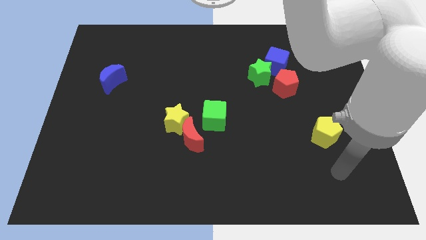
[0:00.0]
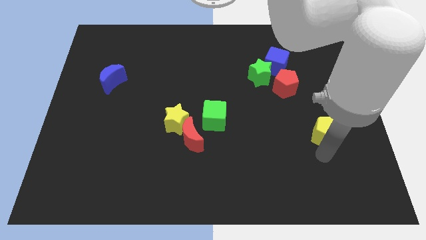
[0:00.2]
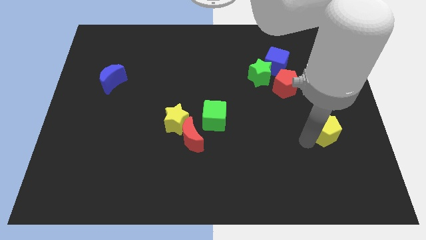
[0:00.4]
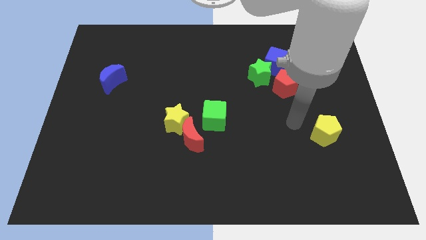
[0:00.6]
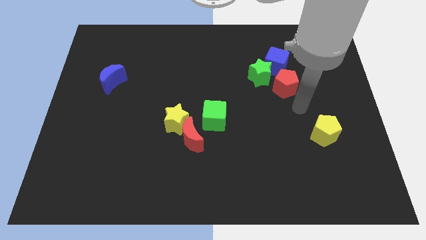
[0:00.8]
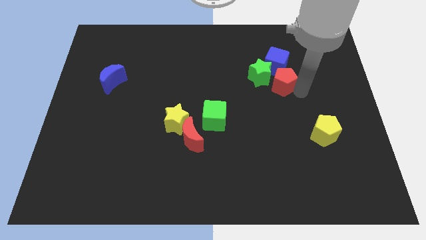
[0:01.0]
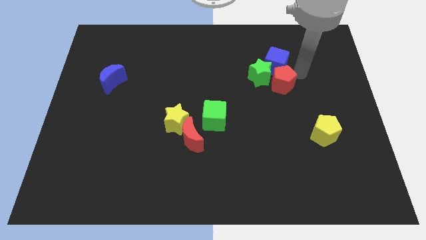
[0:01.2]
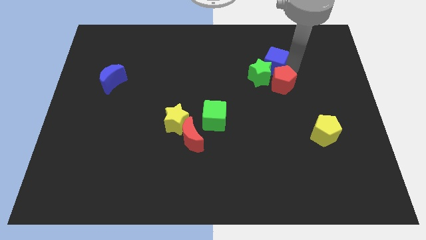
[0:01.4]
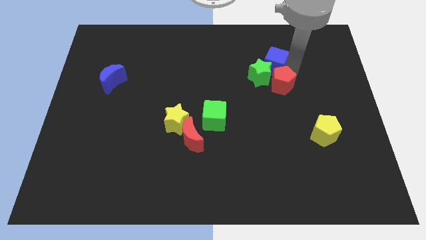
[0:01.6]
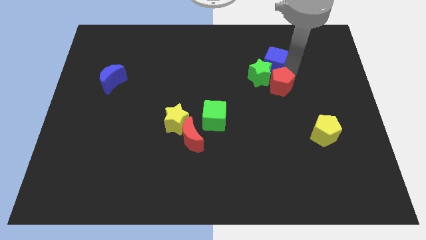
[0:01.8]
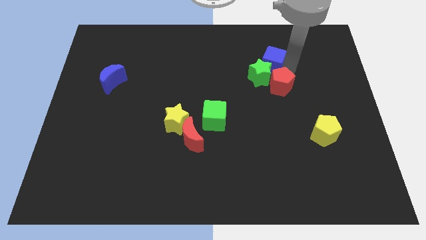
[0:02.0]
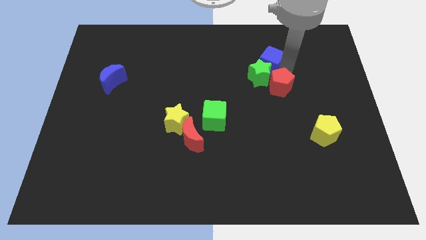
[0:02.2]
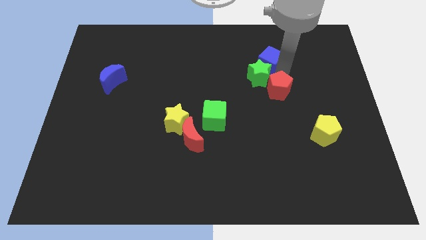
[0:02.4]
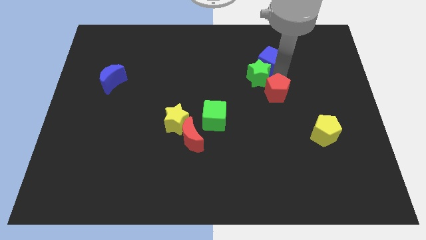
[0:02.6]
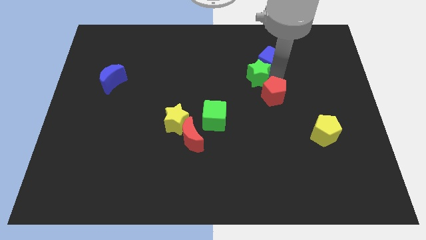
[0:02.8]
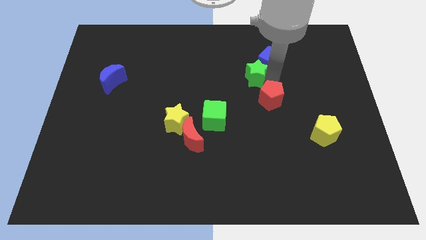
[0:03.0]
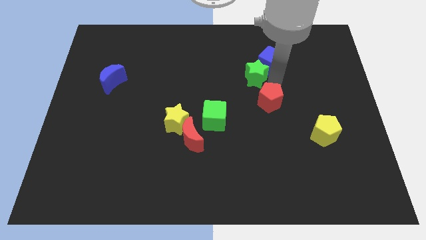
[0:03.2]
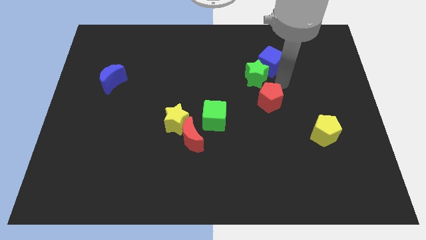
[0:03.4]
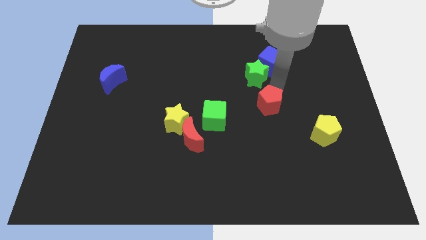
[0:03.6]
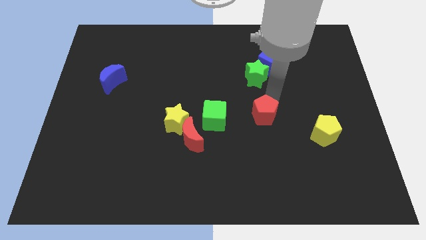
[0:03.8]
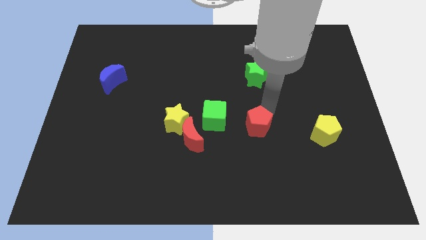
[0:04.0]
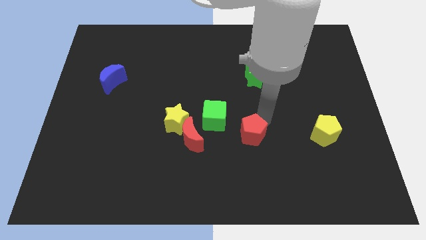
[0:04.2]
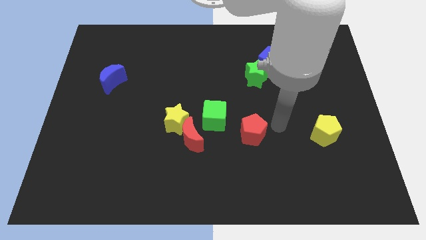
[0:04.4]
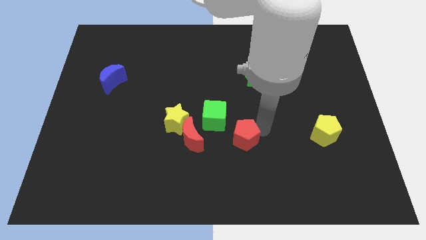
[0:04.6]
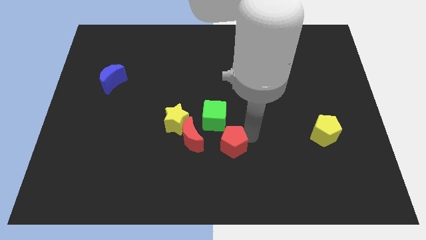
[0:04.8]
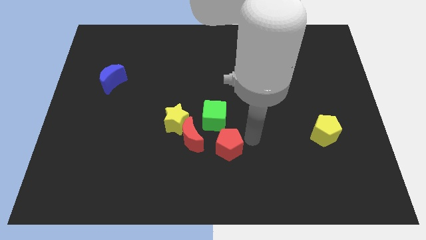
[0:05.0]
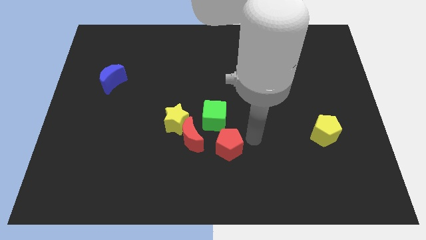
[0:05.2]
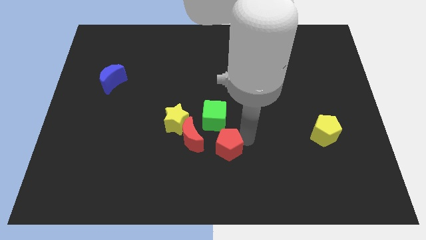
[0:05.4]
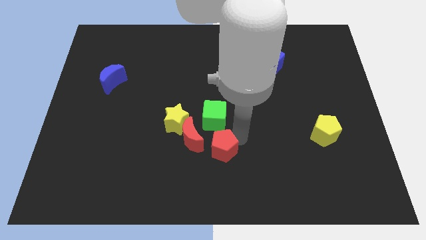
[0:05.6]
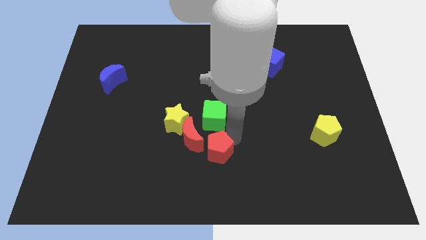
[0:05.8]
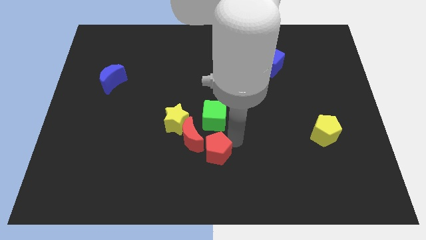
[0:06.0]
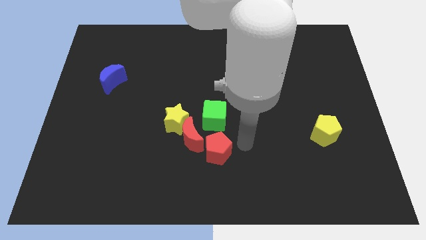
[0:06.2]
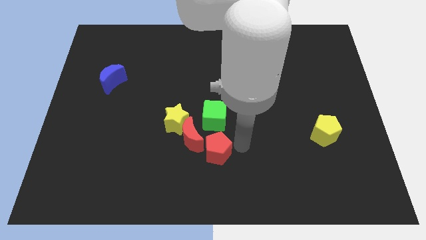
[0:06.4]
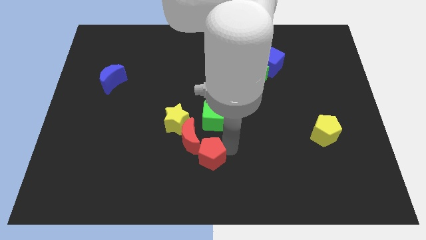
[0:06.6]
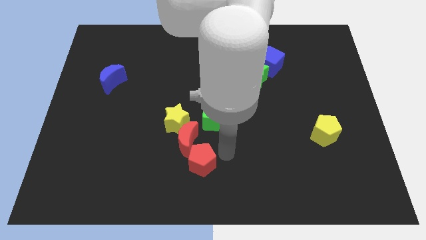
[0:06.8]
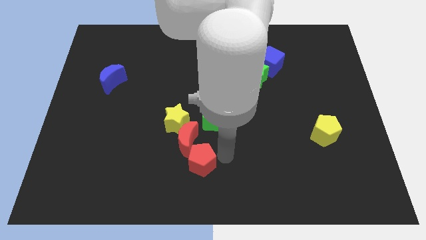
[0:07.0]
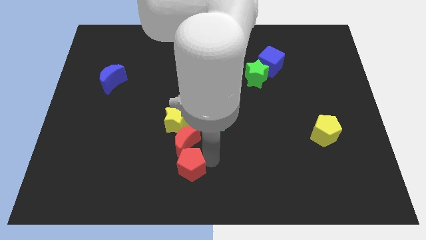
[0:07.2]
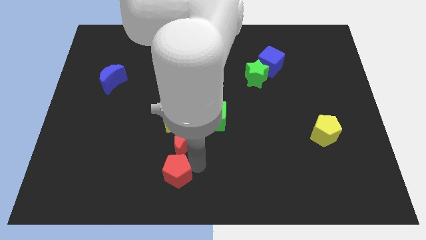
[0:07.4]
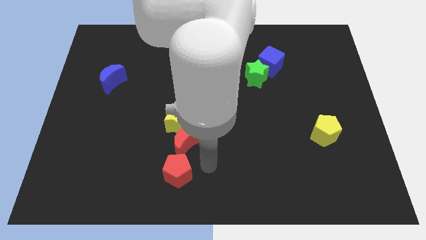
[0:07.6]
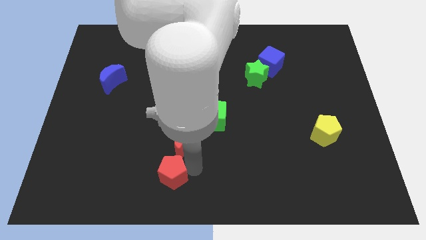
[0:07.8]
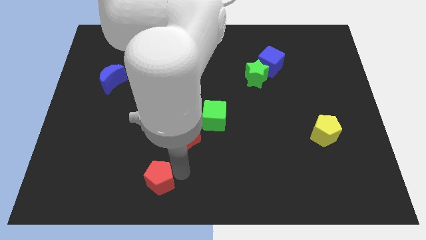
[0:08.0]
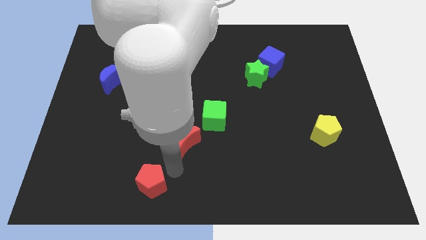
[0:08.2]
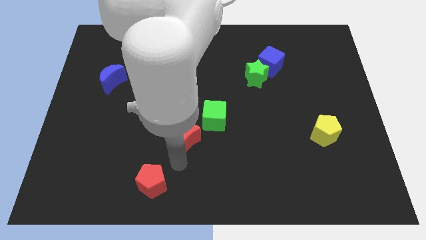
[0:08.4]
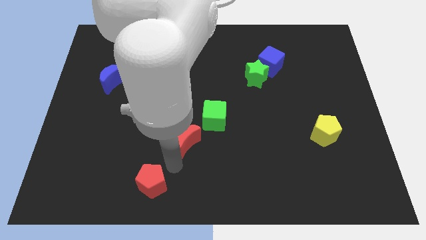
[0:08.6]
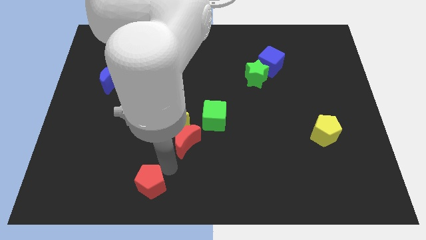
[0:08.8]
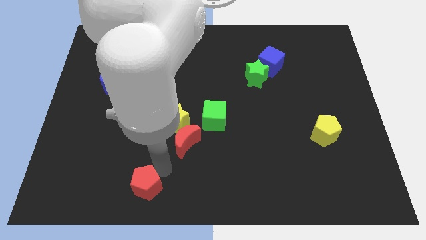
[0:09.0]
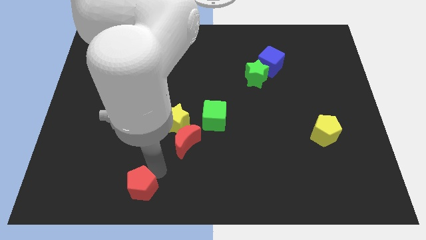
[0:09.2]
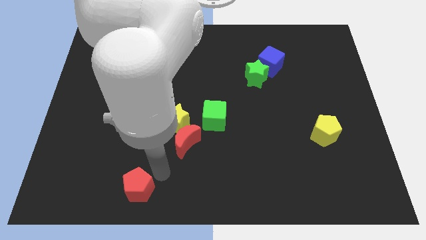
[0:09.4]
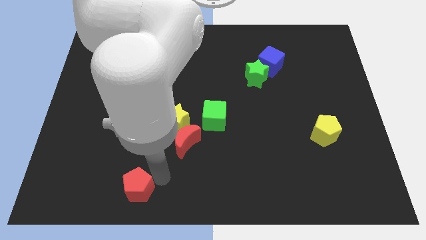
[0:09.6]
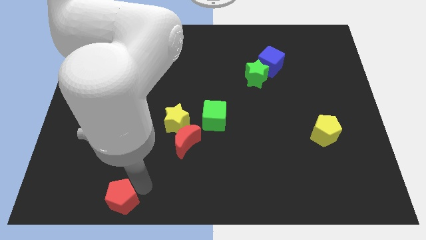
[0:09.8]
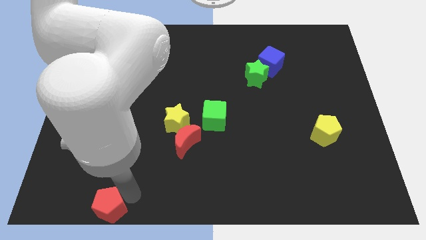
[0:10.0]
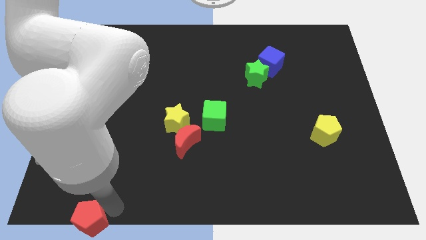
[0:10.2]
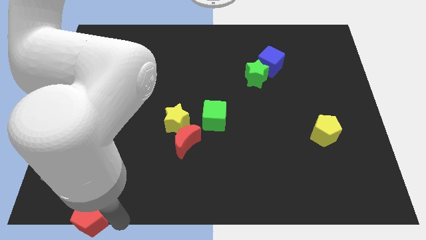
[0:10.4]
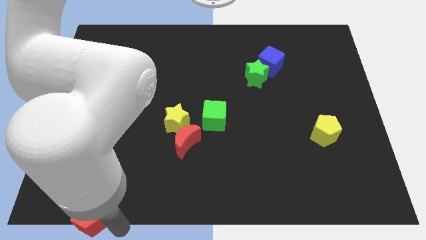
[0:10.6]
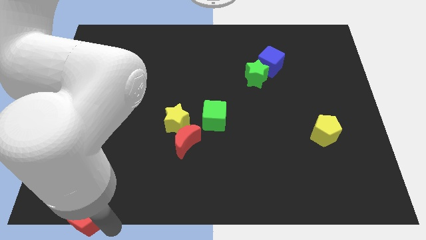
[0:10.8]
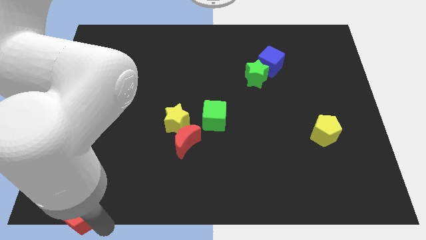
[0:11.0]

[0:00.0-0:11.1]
move the red pentagon to the bottom left
